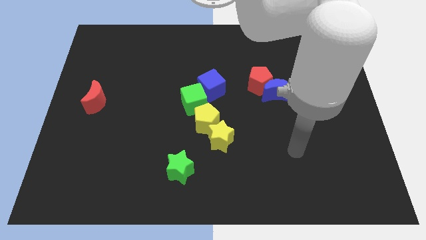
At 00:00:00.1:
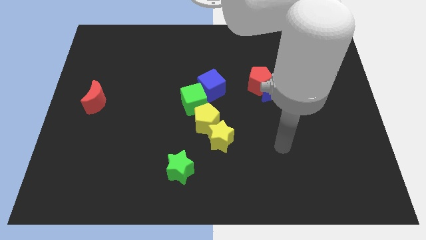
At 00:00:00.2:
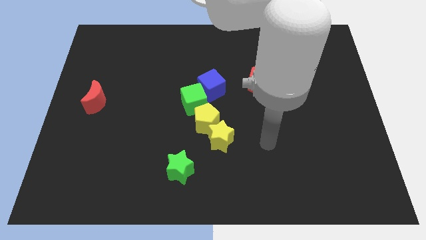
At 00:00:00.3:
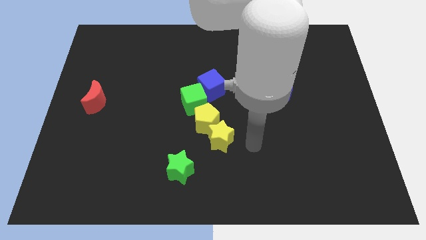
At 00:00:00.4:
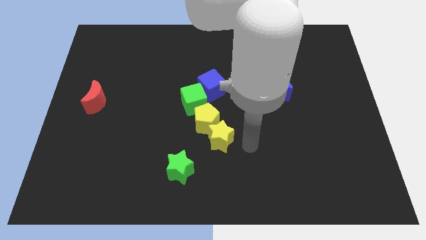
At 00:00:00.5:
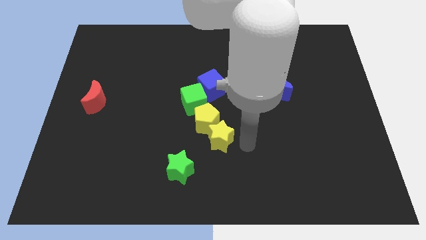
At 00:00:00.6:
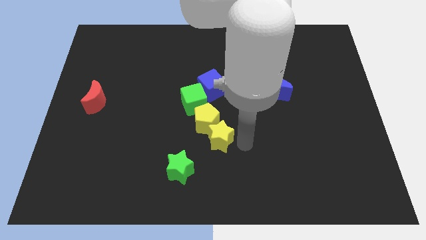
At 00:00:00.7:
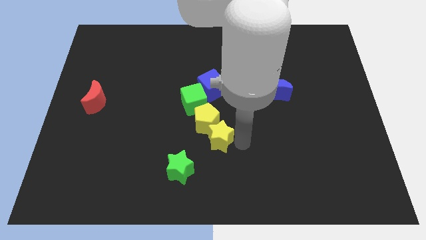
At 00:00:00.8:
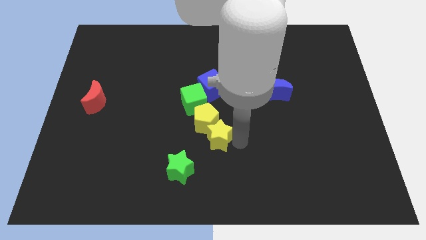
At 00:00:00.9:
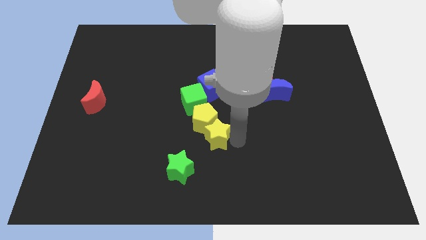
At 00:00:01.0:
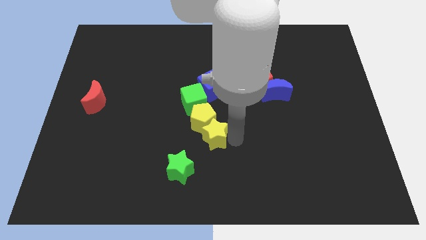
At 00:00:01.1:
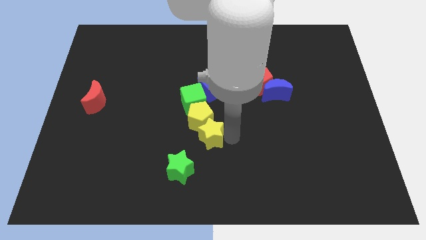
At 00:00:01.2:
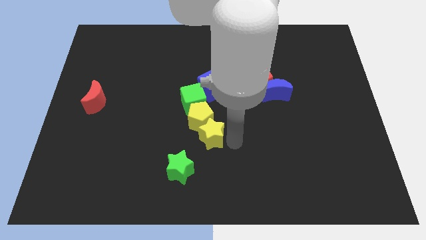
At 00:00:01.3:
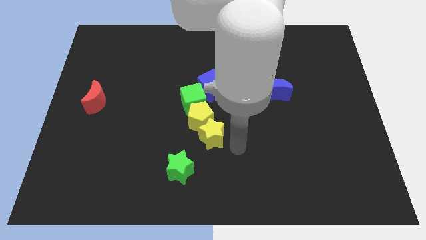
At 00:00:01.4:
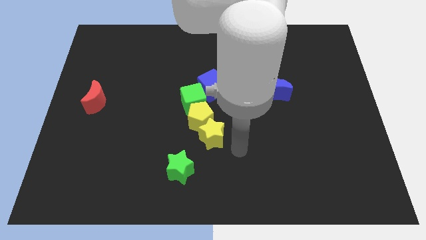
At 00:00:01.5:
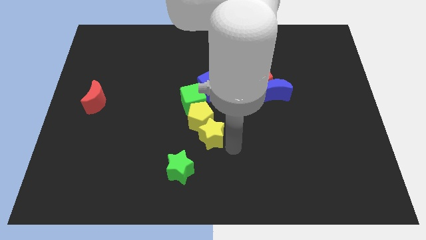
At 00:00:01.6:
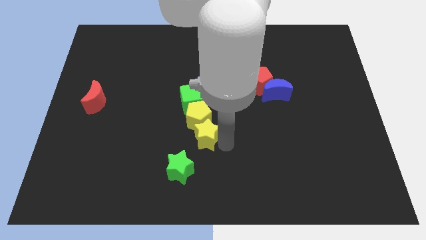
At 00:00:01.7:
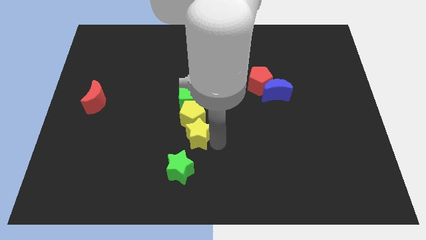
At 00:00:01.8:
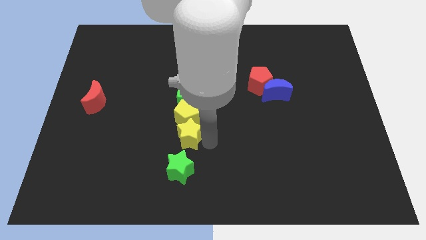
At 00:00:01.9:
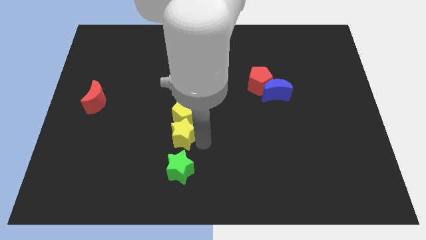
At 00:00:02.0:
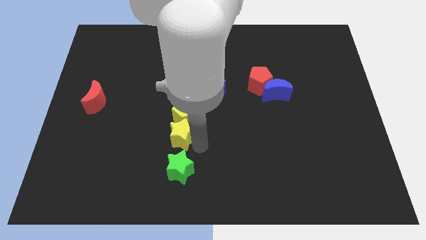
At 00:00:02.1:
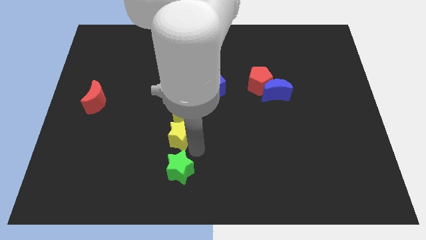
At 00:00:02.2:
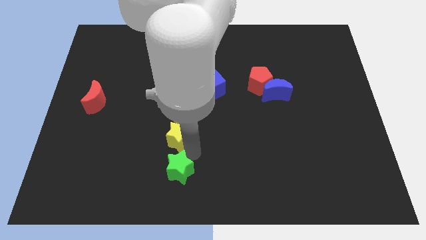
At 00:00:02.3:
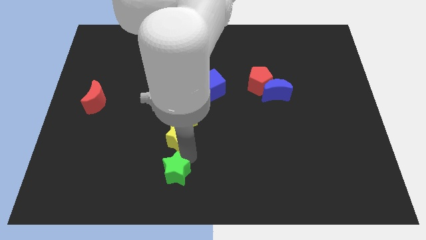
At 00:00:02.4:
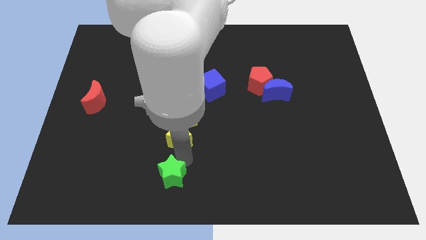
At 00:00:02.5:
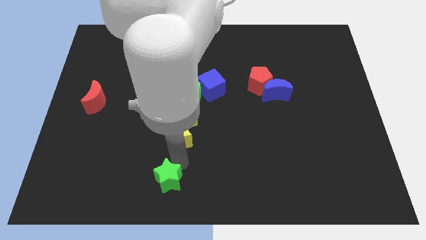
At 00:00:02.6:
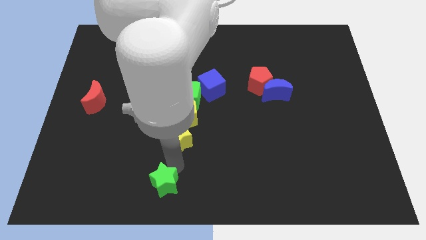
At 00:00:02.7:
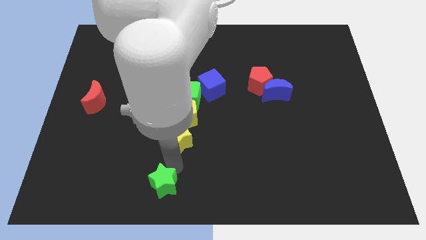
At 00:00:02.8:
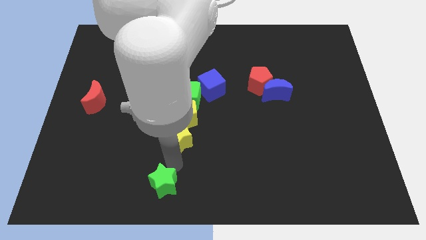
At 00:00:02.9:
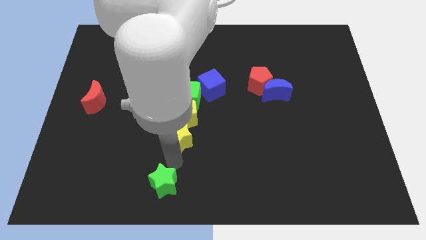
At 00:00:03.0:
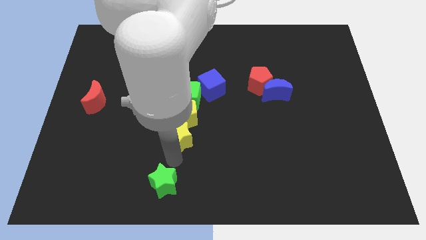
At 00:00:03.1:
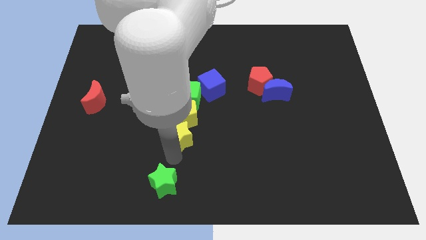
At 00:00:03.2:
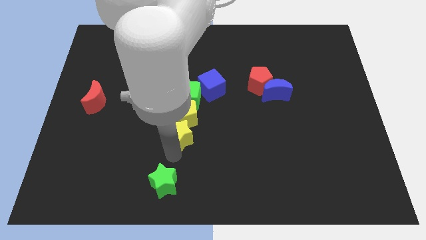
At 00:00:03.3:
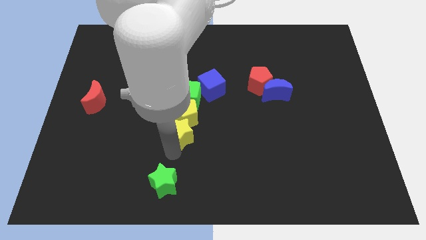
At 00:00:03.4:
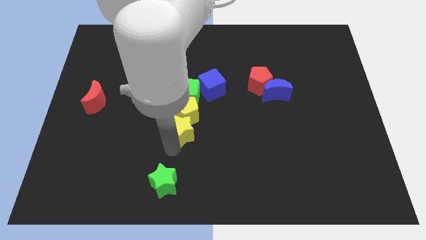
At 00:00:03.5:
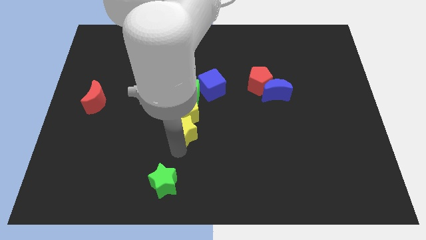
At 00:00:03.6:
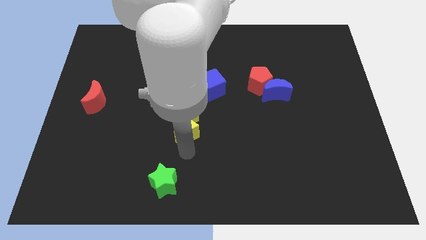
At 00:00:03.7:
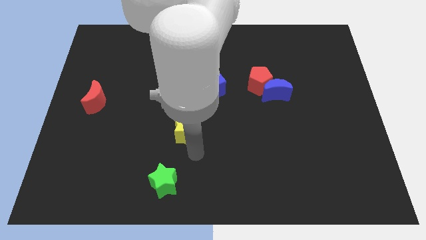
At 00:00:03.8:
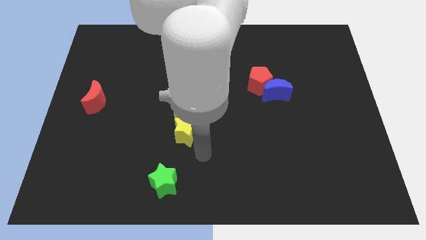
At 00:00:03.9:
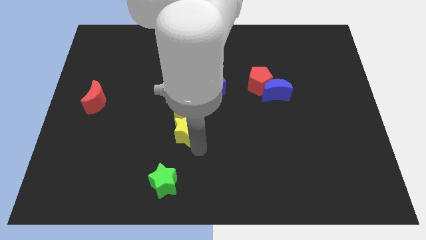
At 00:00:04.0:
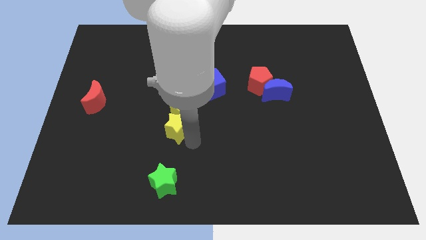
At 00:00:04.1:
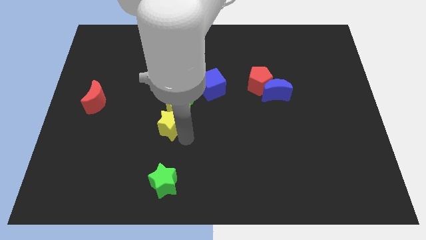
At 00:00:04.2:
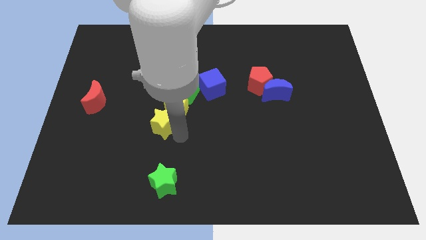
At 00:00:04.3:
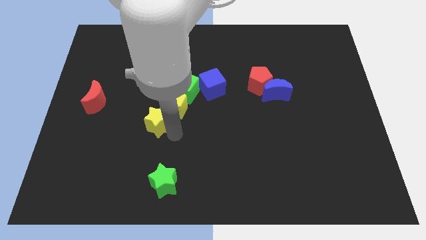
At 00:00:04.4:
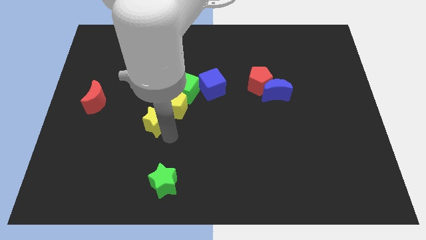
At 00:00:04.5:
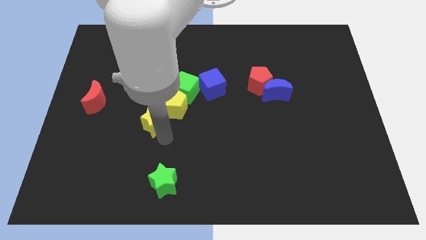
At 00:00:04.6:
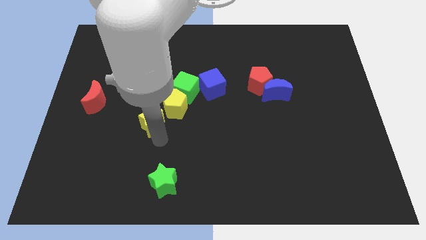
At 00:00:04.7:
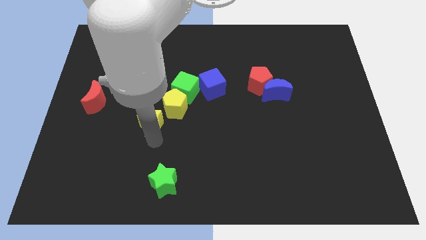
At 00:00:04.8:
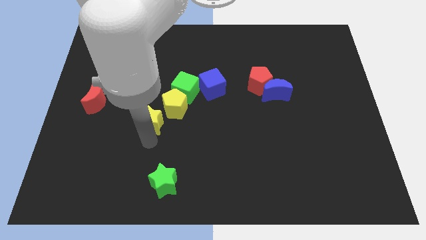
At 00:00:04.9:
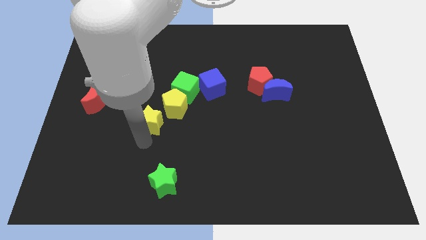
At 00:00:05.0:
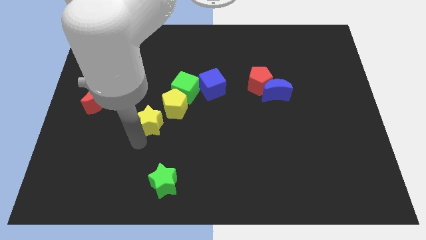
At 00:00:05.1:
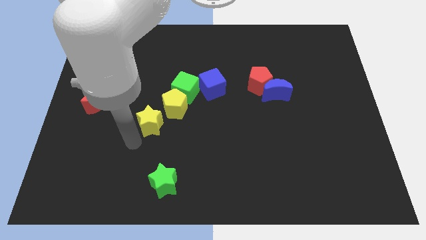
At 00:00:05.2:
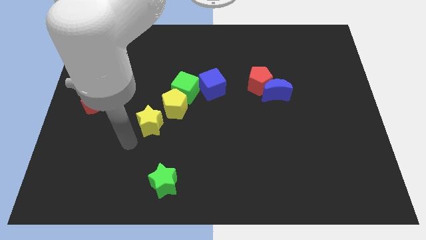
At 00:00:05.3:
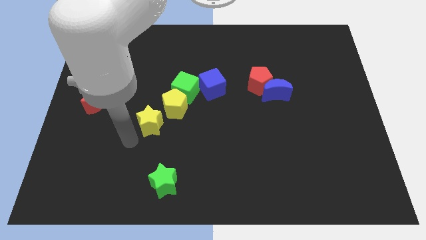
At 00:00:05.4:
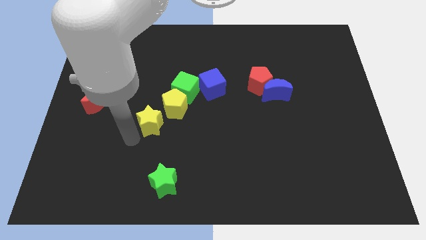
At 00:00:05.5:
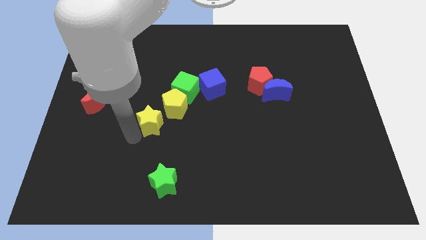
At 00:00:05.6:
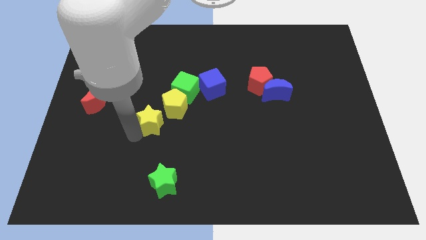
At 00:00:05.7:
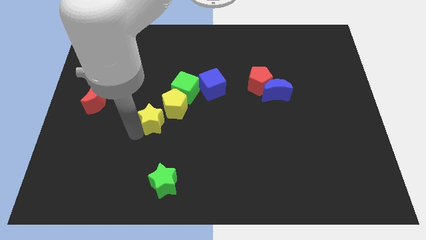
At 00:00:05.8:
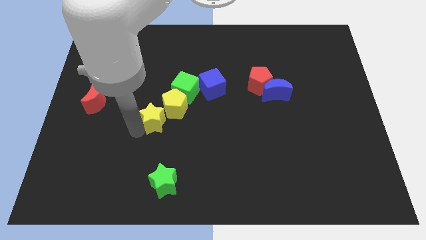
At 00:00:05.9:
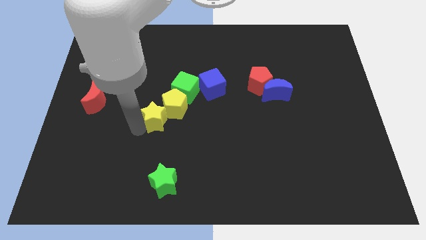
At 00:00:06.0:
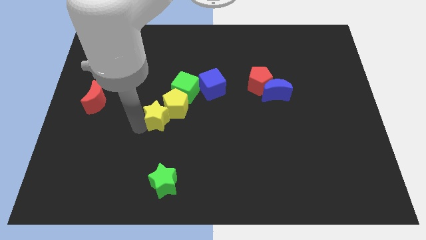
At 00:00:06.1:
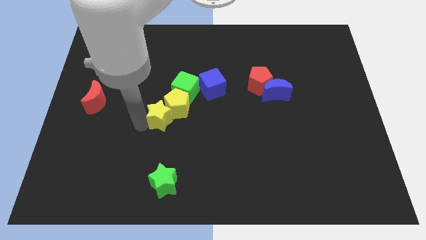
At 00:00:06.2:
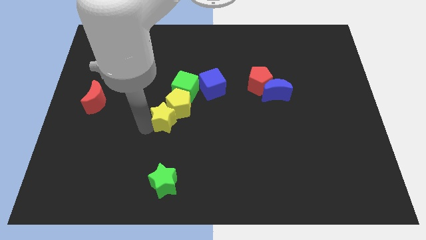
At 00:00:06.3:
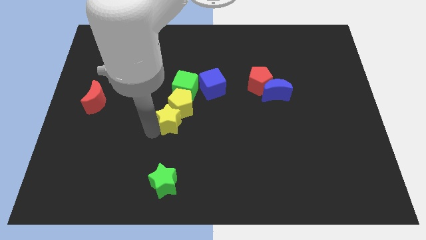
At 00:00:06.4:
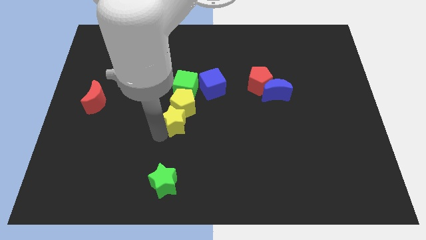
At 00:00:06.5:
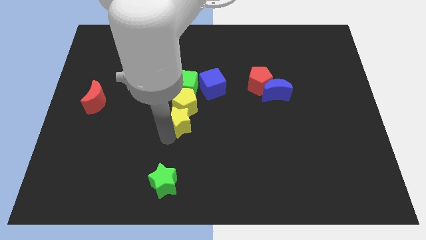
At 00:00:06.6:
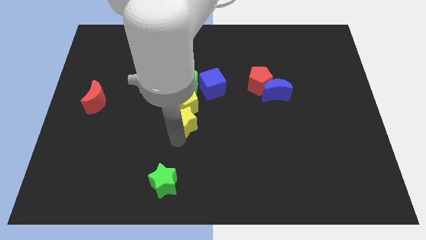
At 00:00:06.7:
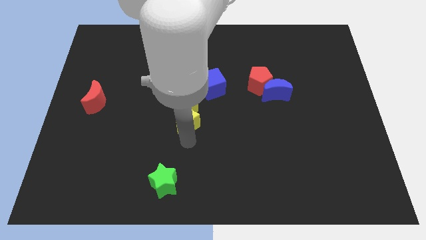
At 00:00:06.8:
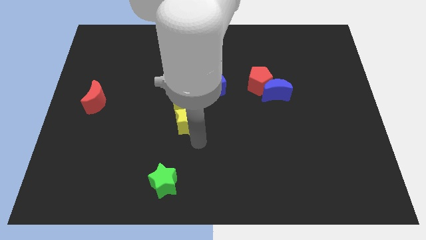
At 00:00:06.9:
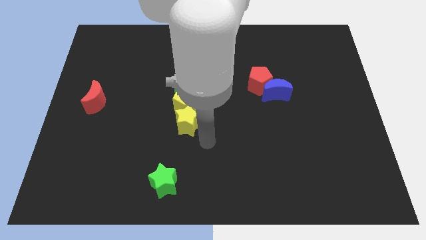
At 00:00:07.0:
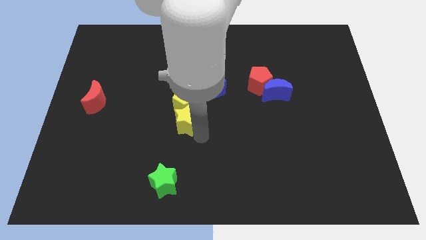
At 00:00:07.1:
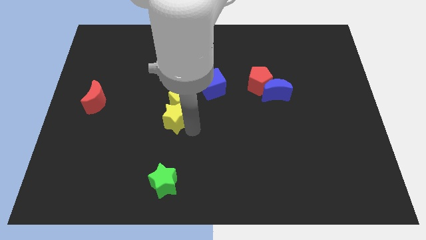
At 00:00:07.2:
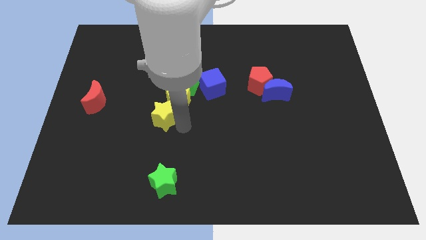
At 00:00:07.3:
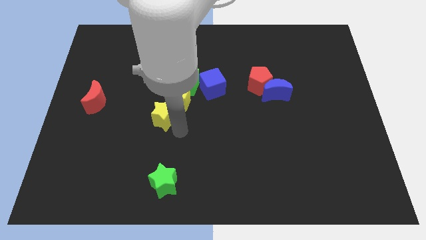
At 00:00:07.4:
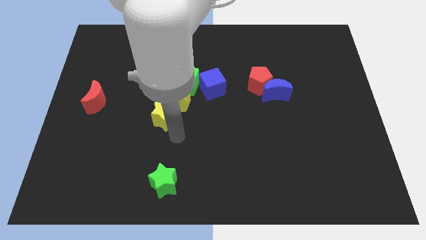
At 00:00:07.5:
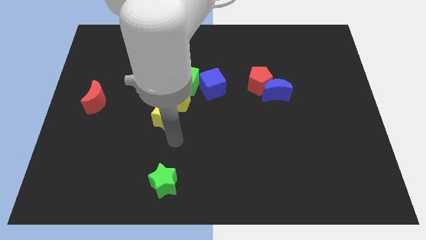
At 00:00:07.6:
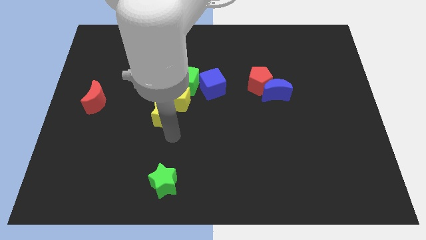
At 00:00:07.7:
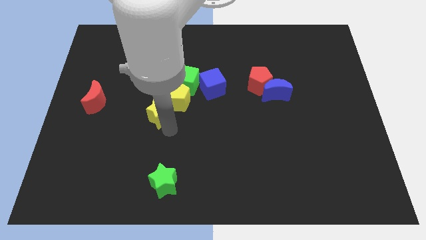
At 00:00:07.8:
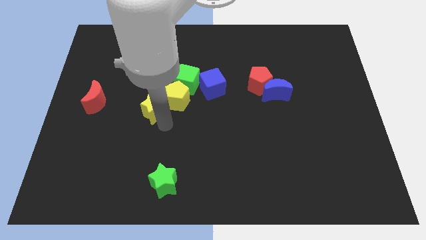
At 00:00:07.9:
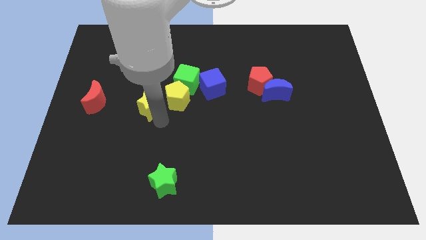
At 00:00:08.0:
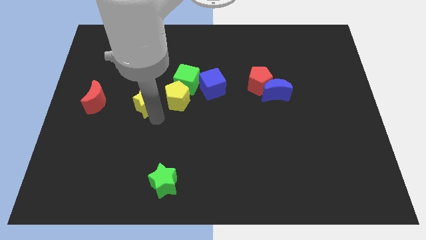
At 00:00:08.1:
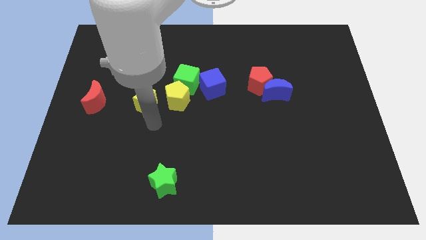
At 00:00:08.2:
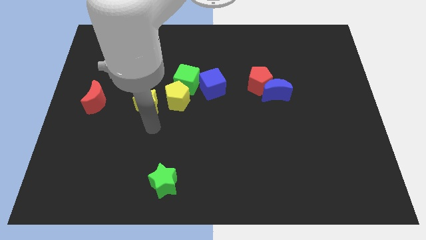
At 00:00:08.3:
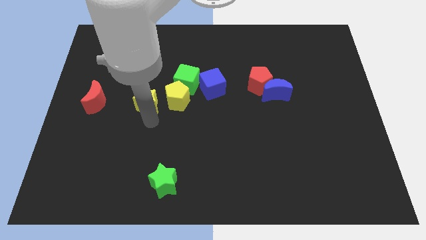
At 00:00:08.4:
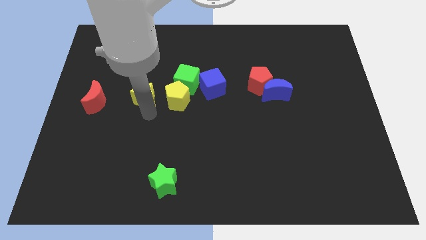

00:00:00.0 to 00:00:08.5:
push the yellow star upwards and to the left diagonally
